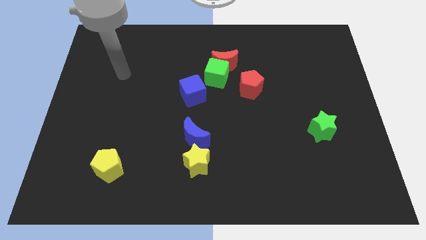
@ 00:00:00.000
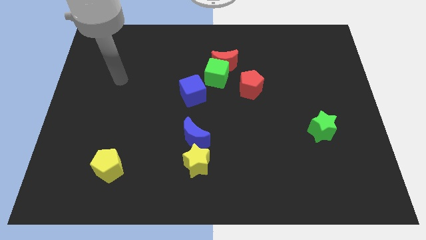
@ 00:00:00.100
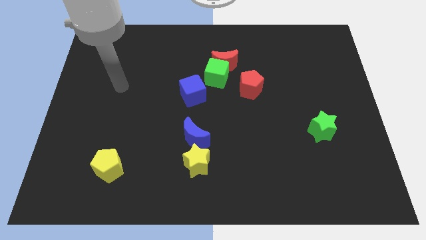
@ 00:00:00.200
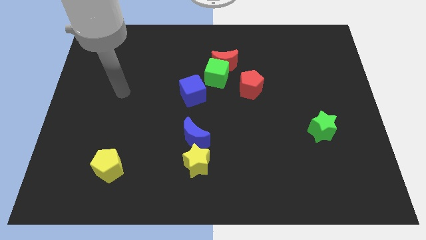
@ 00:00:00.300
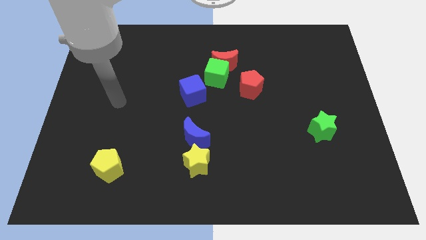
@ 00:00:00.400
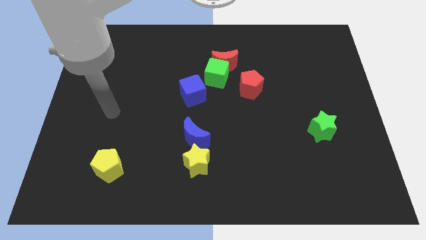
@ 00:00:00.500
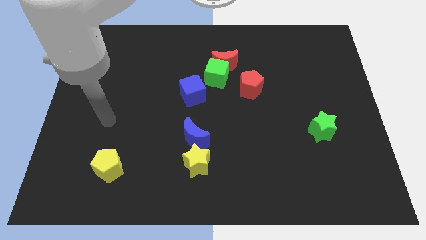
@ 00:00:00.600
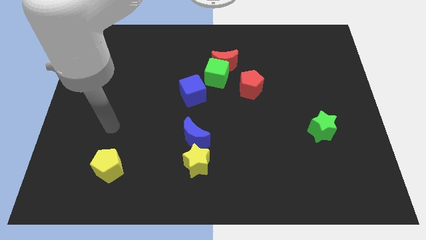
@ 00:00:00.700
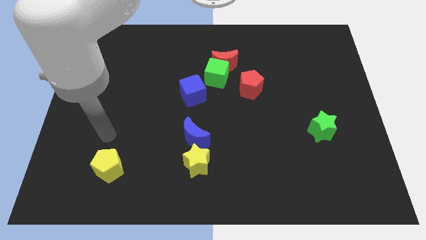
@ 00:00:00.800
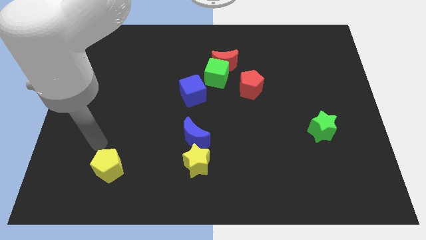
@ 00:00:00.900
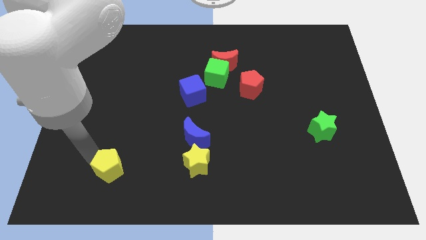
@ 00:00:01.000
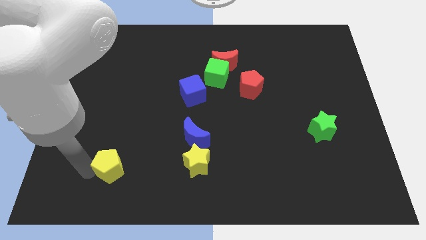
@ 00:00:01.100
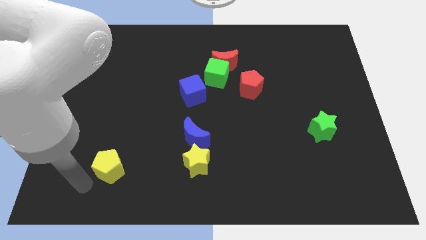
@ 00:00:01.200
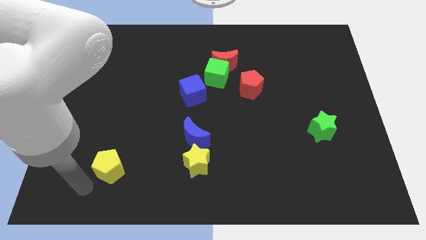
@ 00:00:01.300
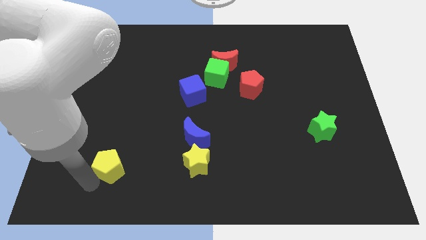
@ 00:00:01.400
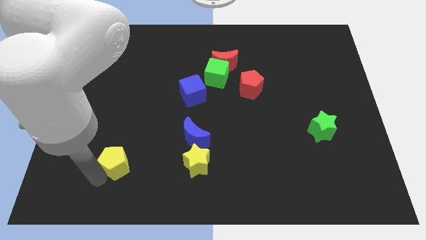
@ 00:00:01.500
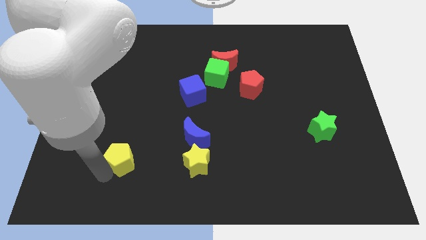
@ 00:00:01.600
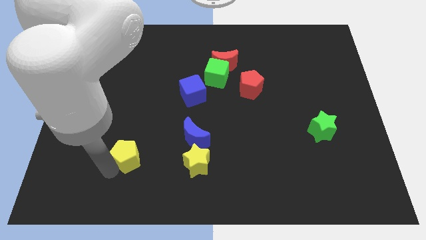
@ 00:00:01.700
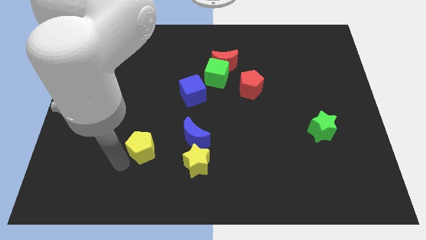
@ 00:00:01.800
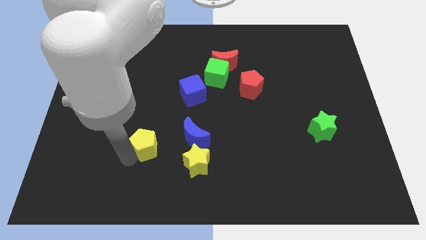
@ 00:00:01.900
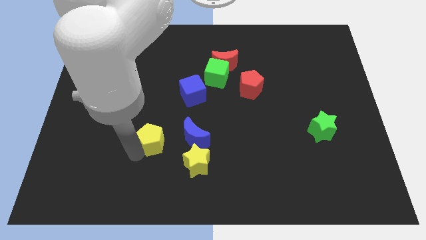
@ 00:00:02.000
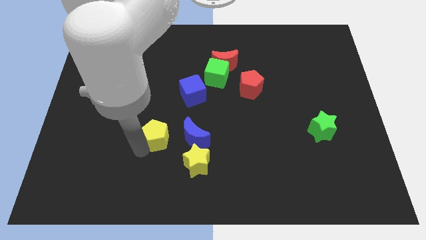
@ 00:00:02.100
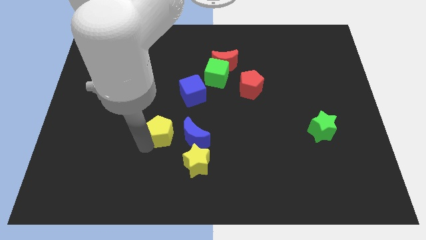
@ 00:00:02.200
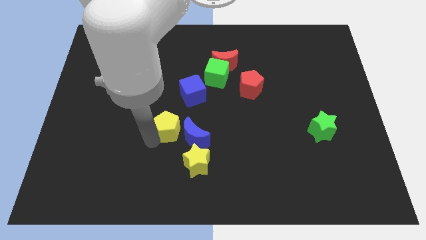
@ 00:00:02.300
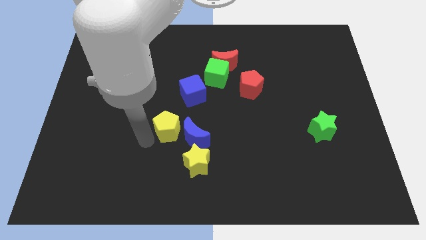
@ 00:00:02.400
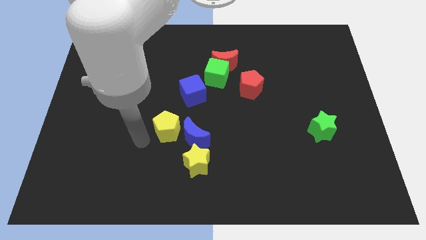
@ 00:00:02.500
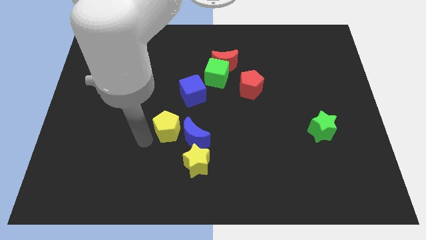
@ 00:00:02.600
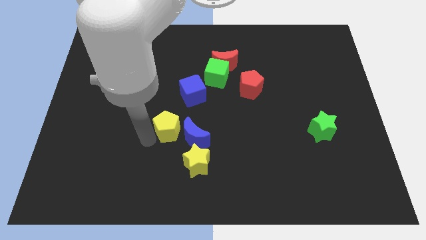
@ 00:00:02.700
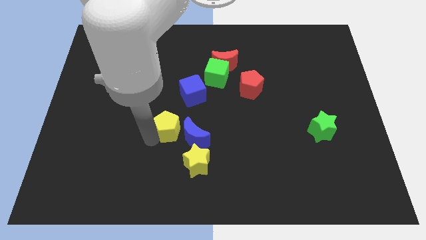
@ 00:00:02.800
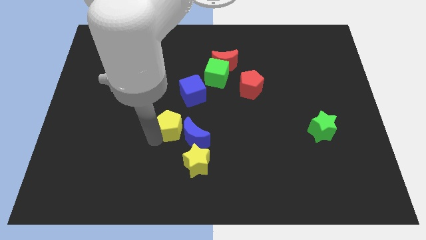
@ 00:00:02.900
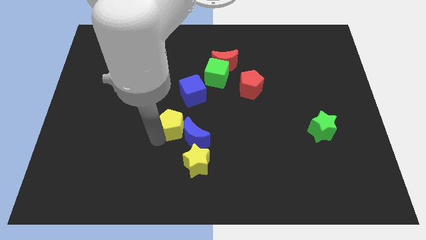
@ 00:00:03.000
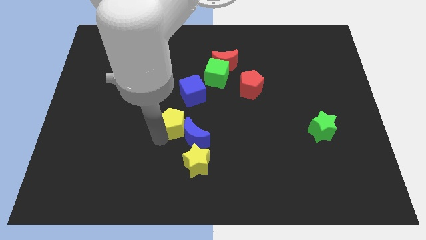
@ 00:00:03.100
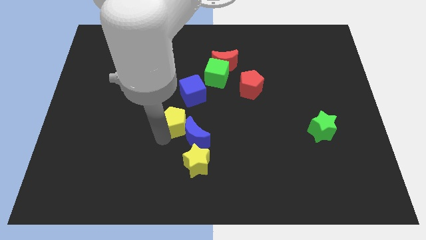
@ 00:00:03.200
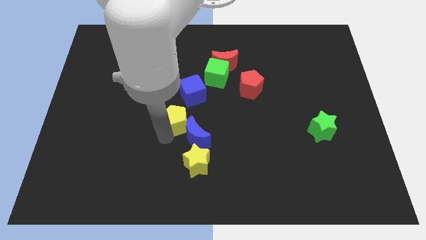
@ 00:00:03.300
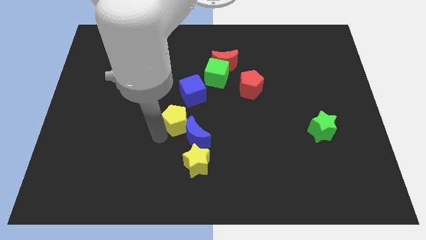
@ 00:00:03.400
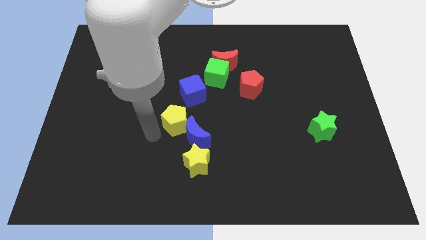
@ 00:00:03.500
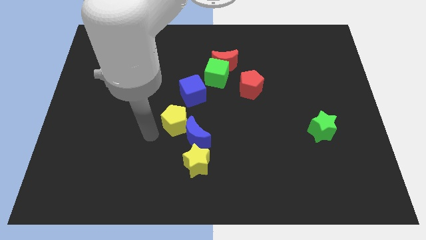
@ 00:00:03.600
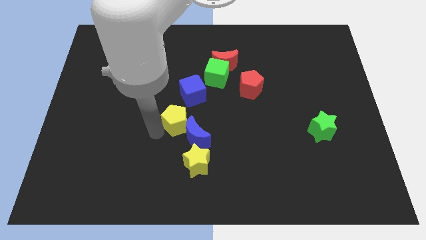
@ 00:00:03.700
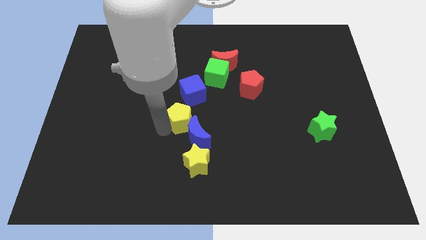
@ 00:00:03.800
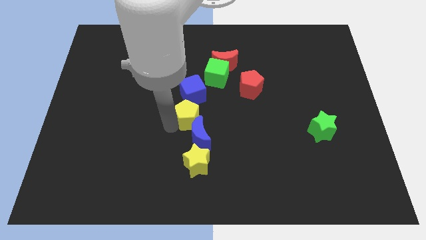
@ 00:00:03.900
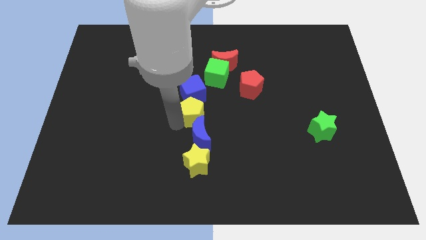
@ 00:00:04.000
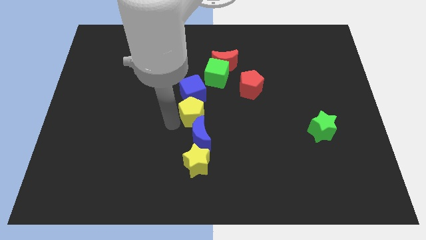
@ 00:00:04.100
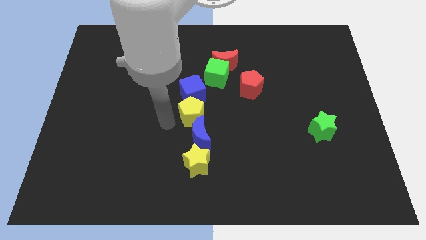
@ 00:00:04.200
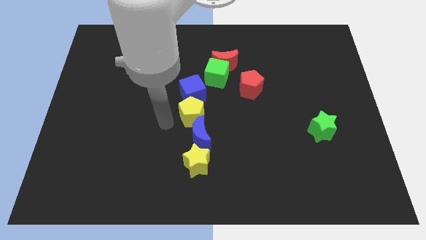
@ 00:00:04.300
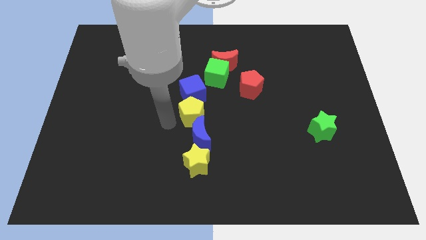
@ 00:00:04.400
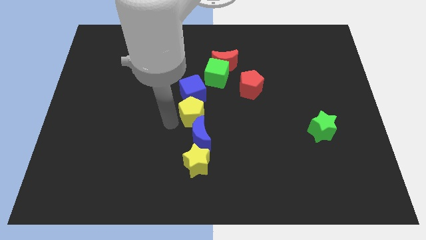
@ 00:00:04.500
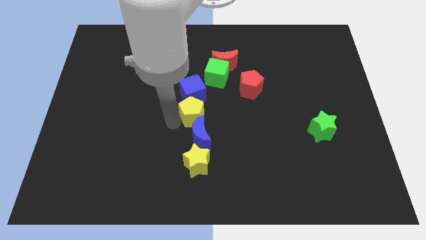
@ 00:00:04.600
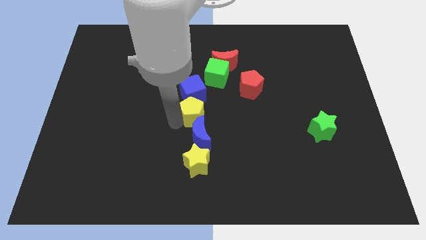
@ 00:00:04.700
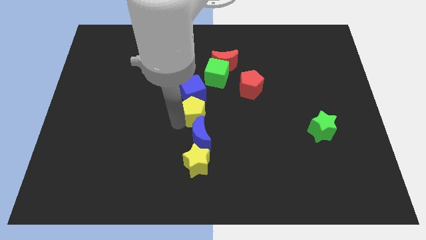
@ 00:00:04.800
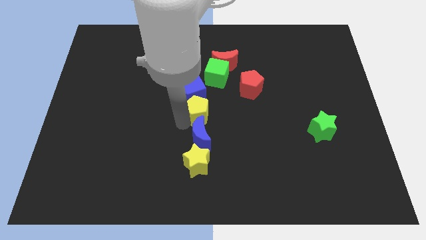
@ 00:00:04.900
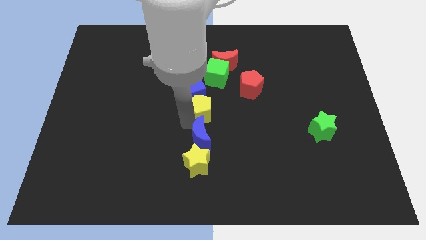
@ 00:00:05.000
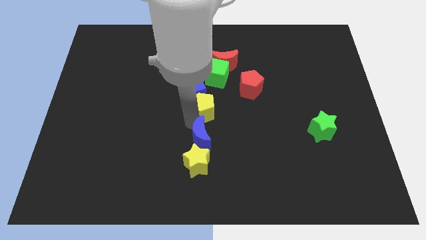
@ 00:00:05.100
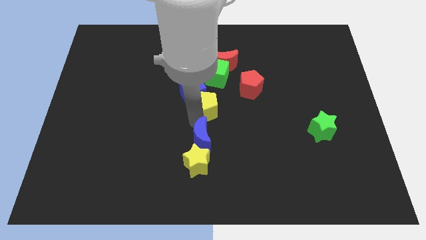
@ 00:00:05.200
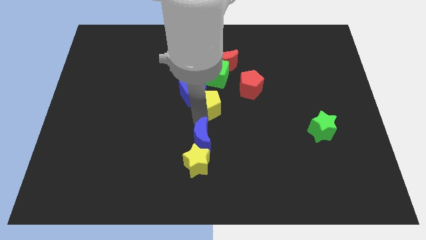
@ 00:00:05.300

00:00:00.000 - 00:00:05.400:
move the yellow pentagon right of the blue cube

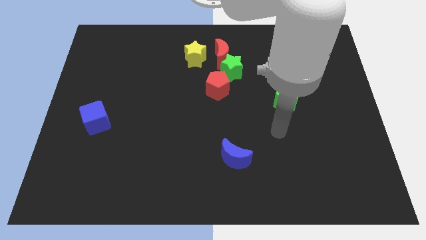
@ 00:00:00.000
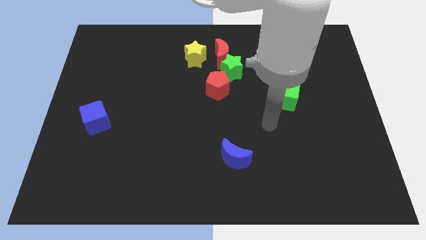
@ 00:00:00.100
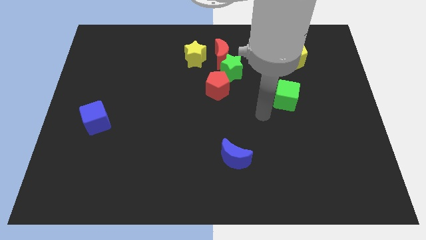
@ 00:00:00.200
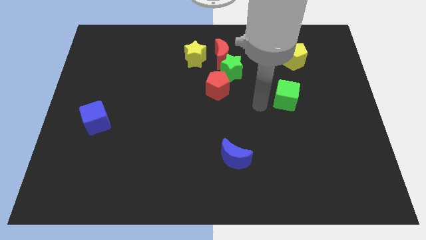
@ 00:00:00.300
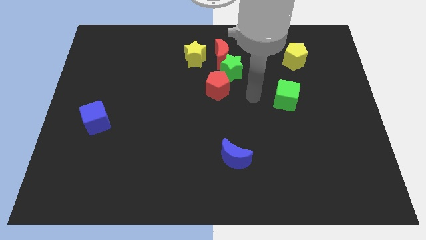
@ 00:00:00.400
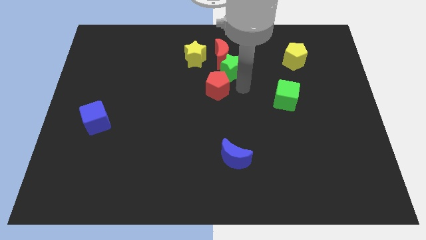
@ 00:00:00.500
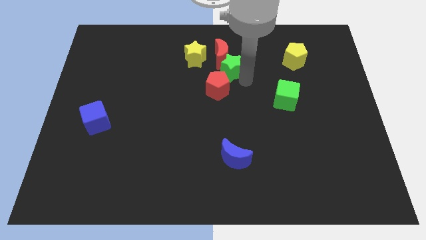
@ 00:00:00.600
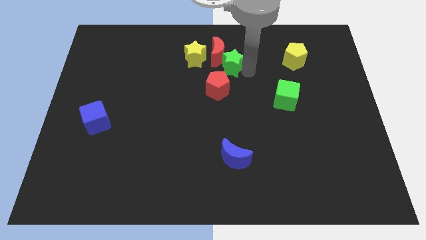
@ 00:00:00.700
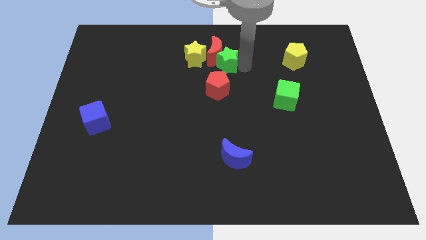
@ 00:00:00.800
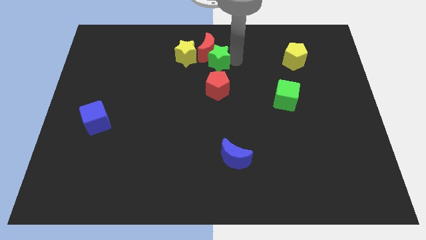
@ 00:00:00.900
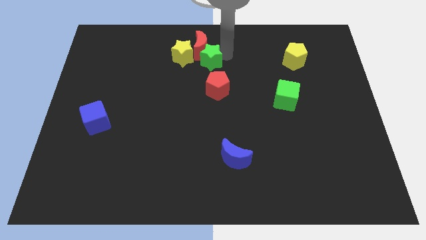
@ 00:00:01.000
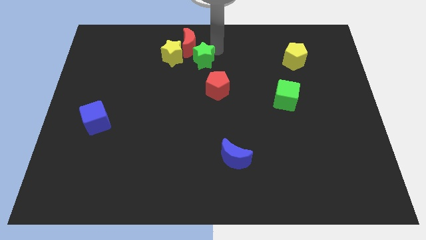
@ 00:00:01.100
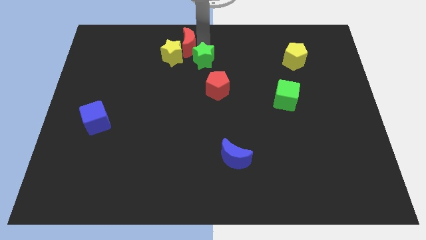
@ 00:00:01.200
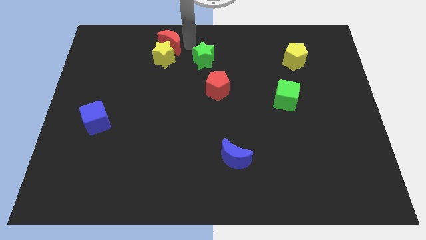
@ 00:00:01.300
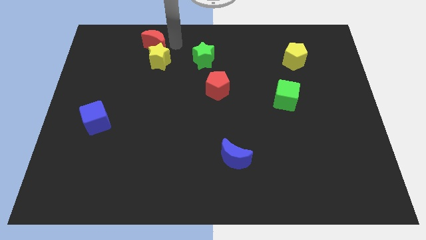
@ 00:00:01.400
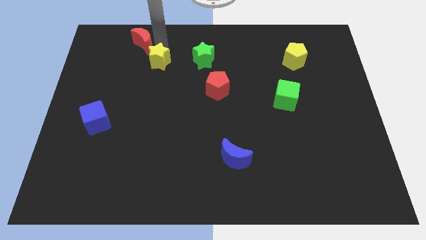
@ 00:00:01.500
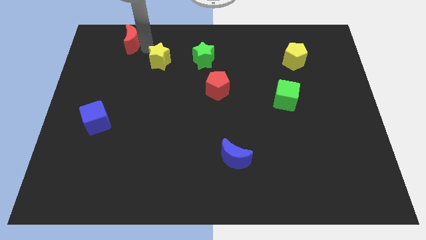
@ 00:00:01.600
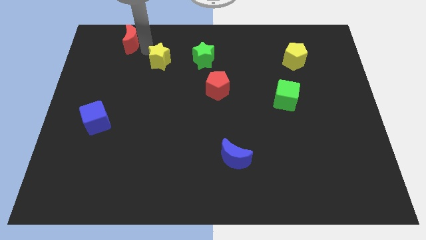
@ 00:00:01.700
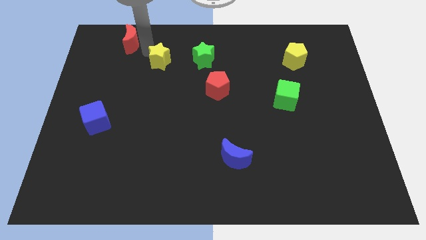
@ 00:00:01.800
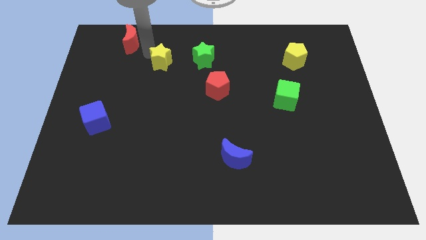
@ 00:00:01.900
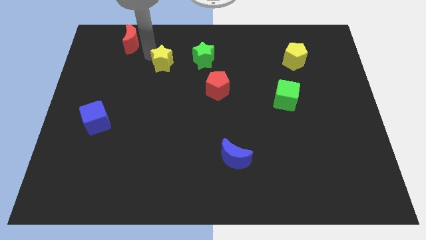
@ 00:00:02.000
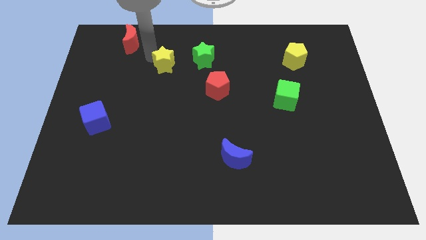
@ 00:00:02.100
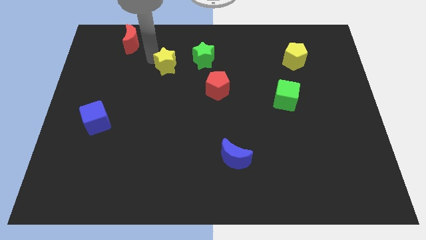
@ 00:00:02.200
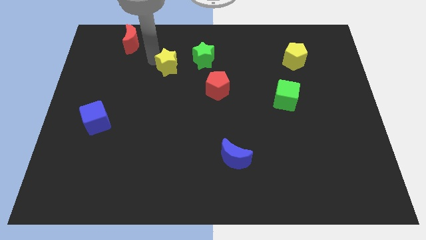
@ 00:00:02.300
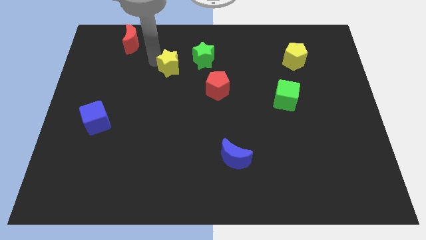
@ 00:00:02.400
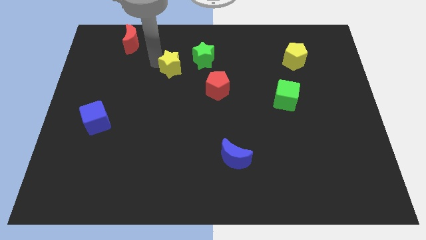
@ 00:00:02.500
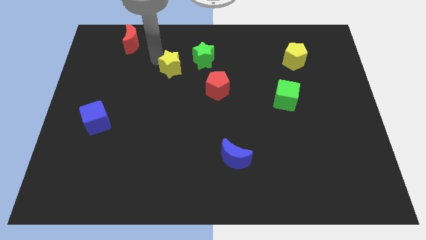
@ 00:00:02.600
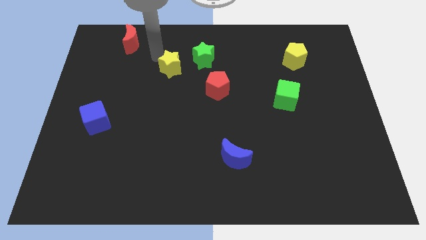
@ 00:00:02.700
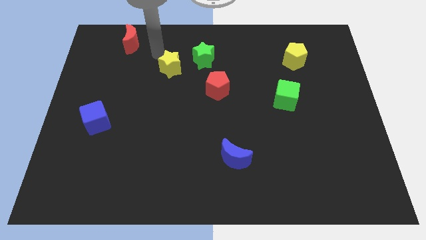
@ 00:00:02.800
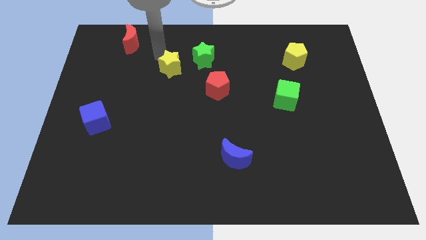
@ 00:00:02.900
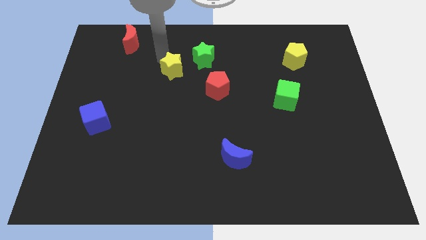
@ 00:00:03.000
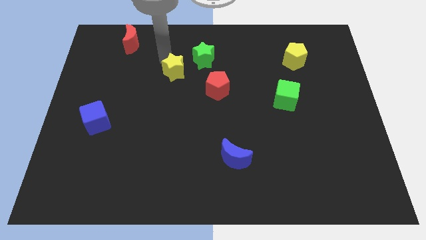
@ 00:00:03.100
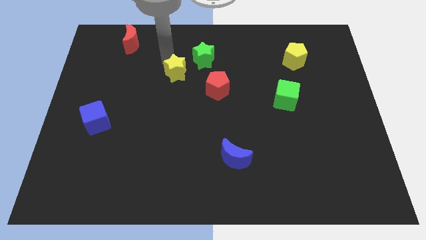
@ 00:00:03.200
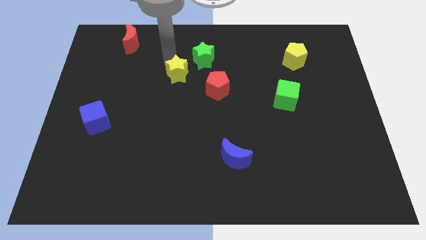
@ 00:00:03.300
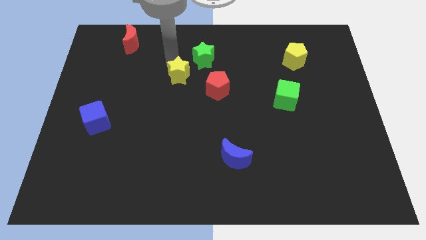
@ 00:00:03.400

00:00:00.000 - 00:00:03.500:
push the yellow star left of the red pentagon
